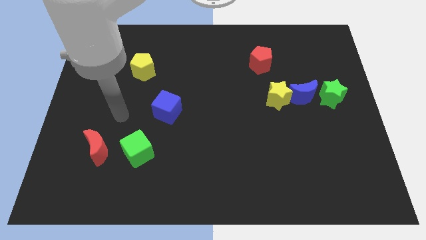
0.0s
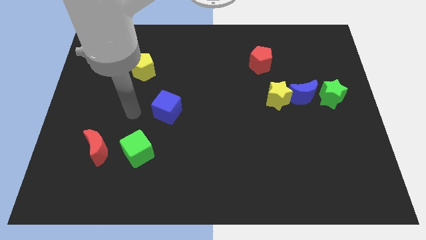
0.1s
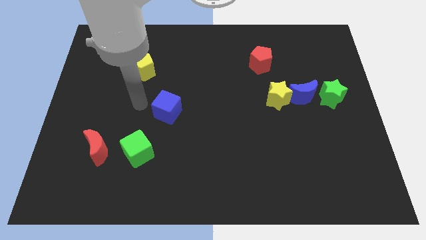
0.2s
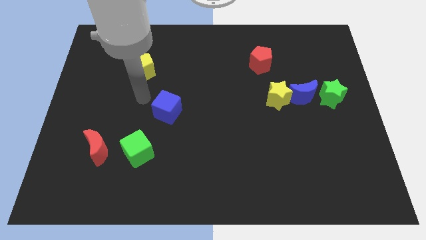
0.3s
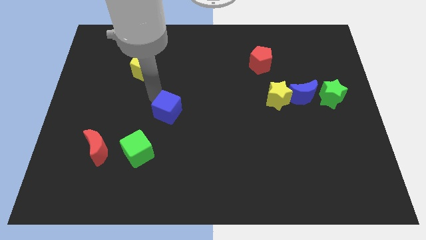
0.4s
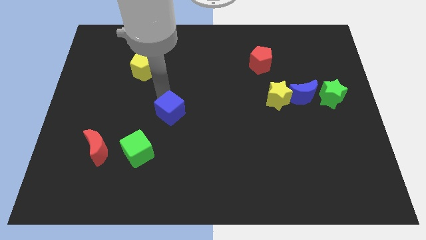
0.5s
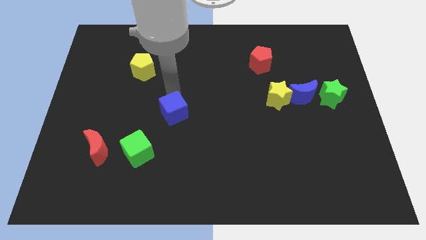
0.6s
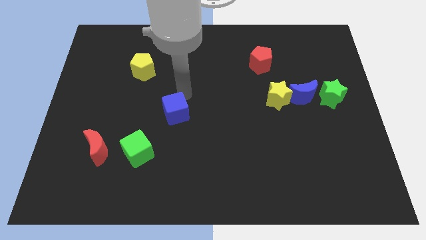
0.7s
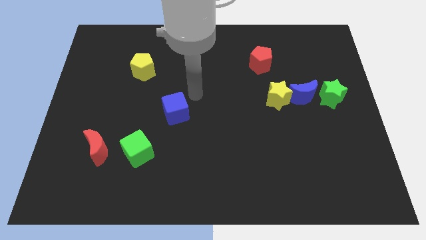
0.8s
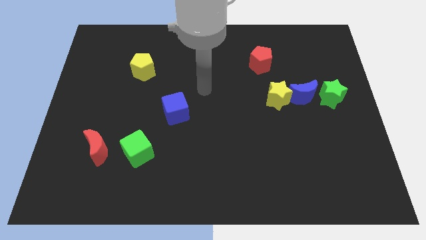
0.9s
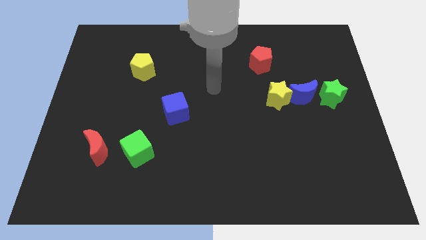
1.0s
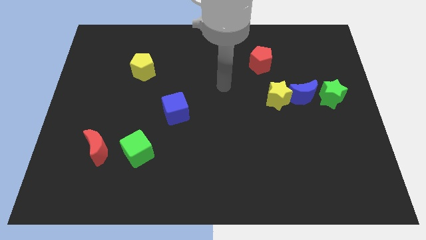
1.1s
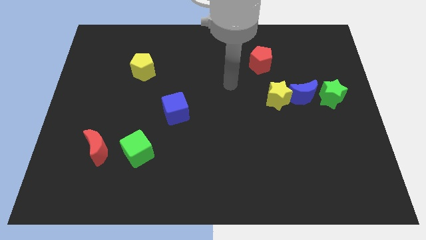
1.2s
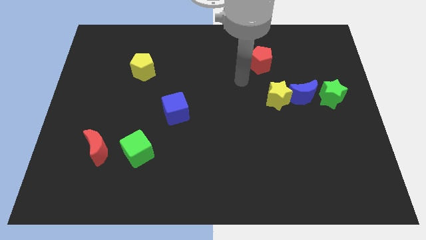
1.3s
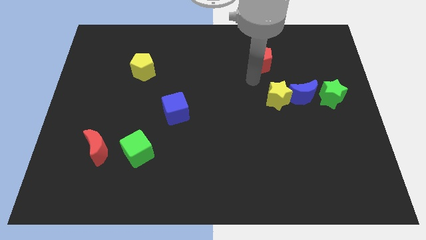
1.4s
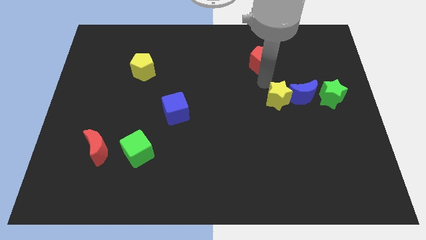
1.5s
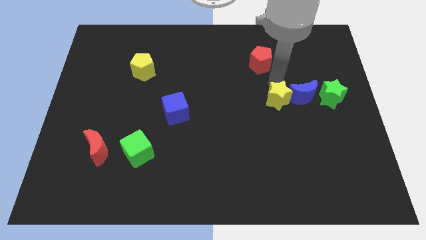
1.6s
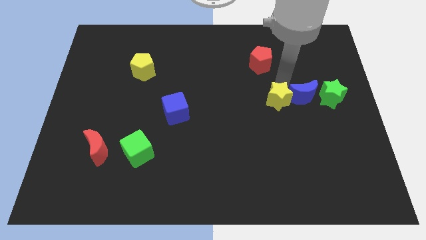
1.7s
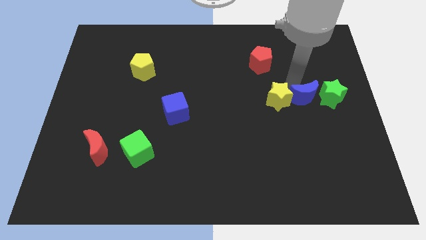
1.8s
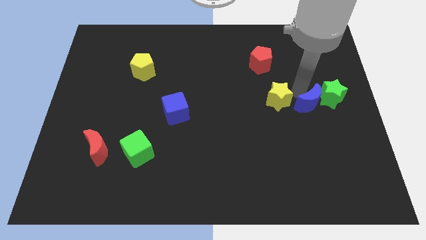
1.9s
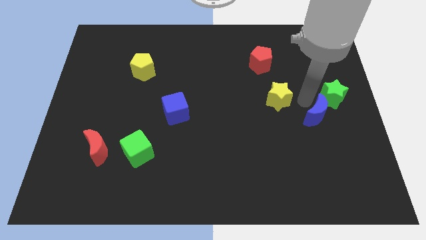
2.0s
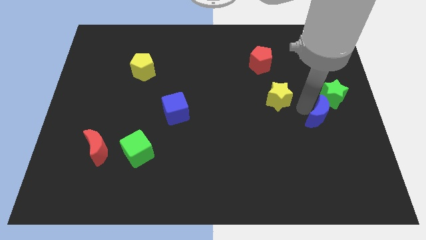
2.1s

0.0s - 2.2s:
pull the yellow star apart from the blue moon

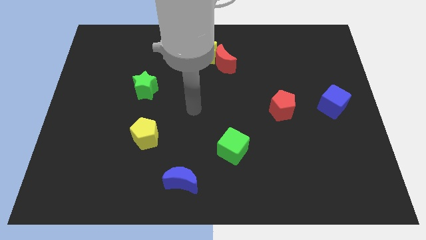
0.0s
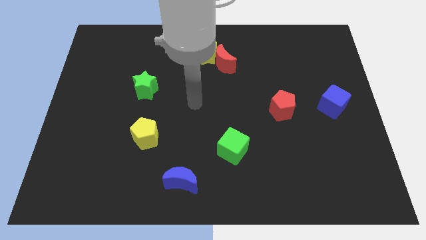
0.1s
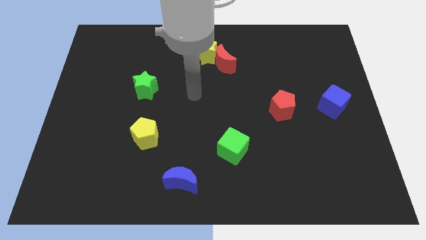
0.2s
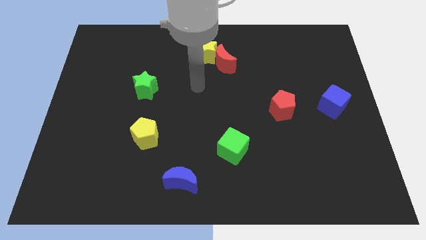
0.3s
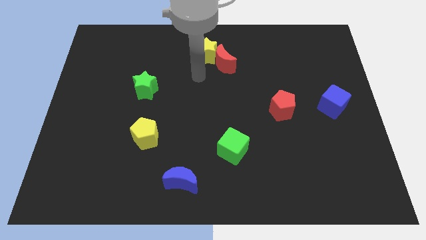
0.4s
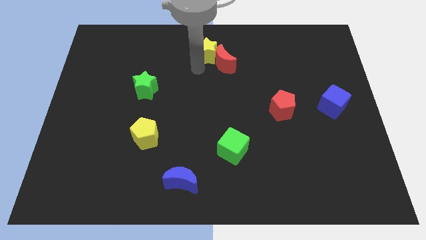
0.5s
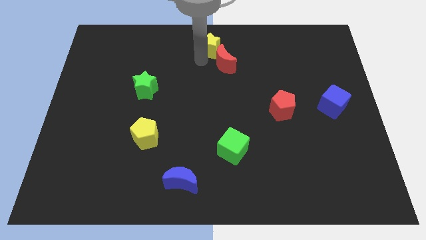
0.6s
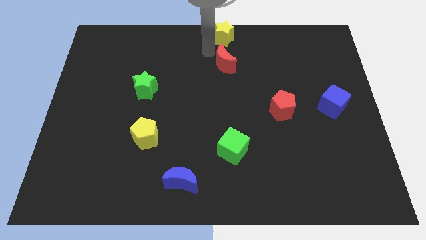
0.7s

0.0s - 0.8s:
move the red moon away from the yellow star

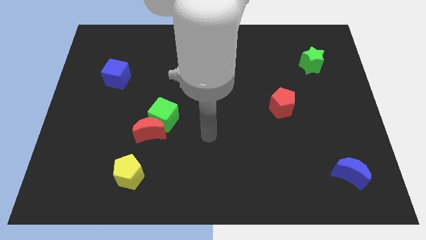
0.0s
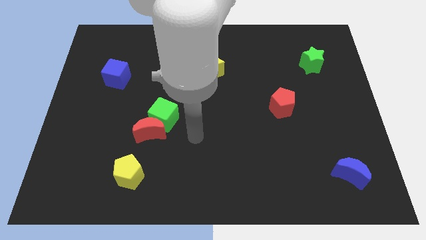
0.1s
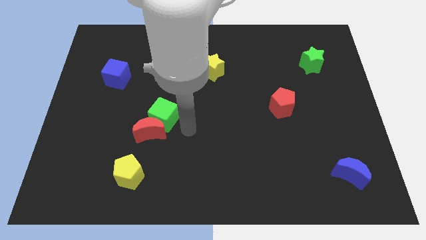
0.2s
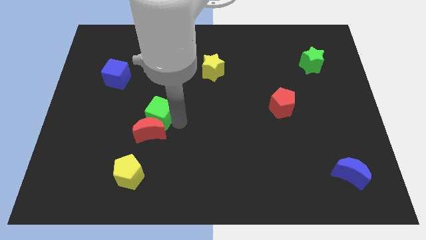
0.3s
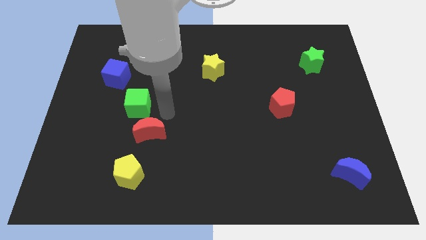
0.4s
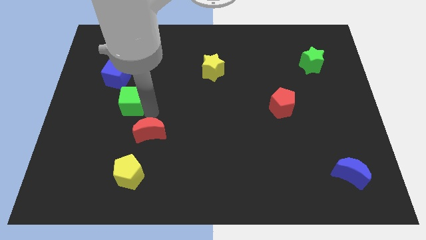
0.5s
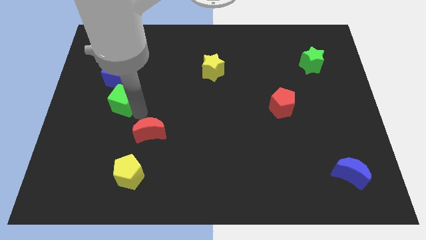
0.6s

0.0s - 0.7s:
separate the red moon from the green cube

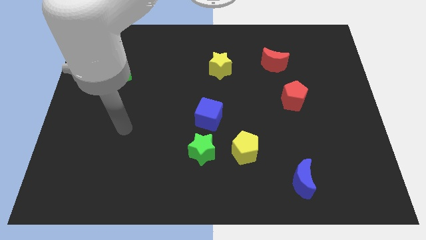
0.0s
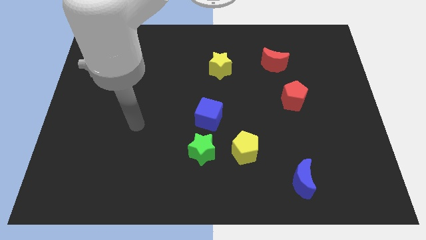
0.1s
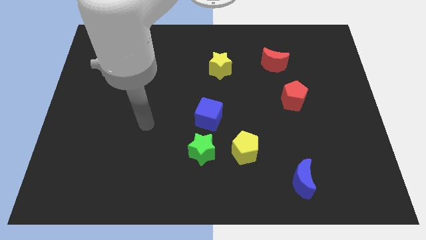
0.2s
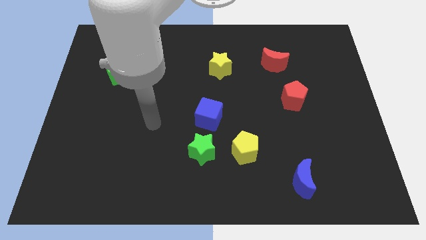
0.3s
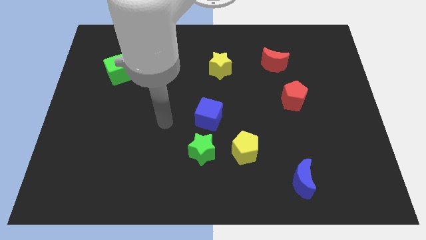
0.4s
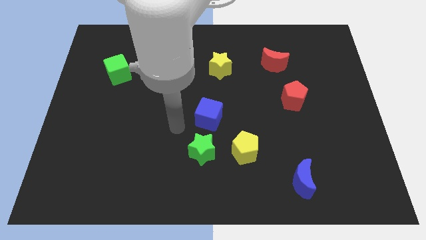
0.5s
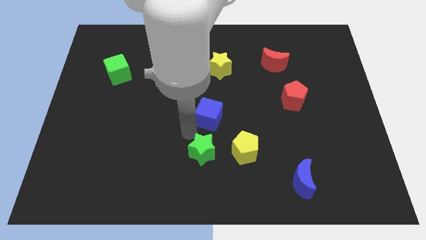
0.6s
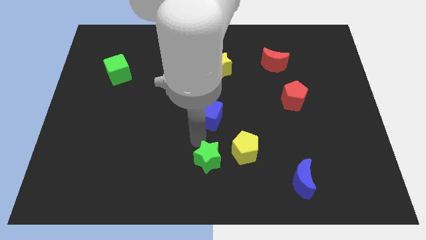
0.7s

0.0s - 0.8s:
pull the blue cube apart from the green star

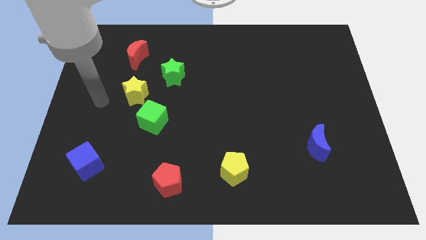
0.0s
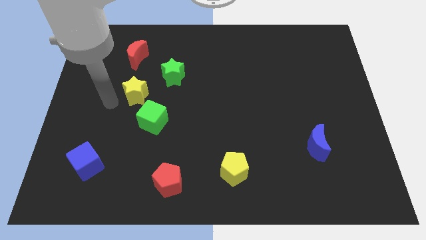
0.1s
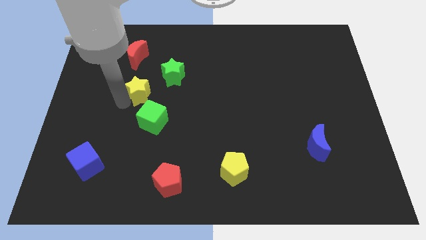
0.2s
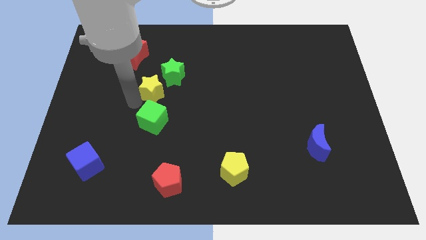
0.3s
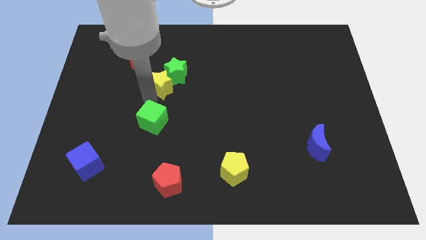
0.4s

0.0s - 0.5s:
separate the green cube from the yellow star

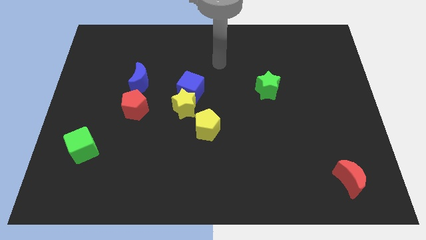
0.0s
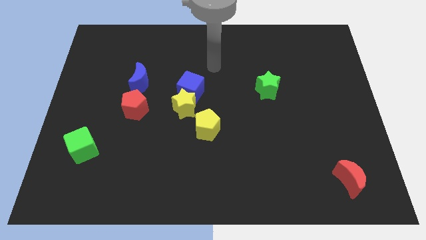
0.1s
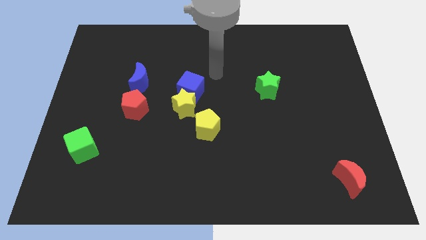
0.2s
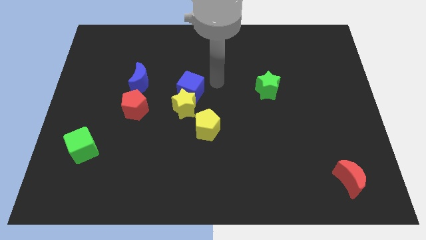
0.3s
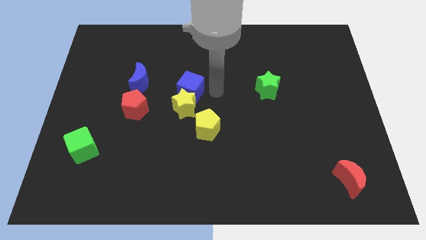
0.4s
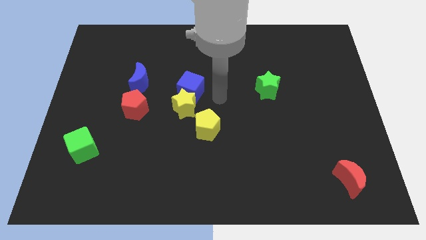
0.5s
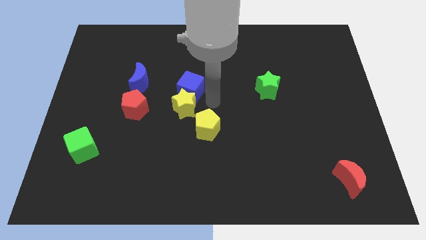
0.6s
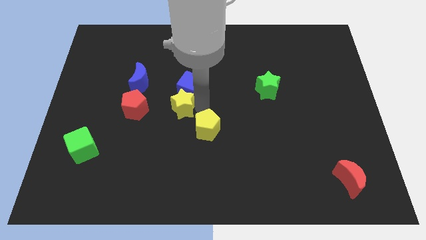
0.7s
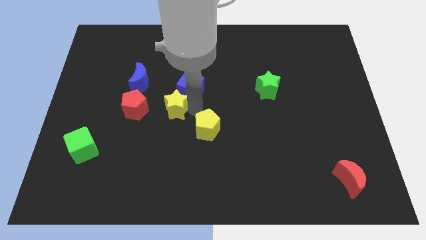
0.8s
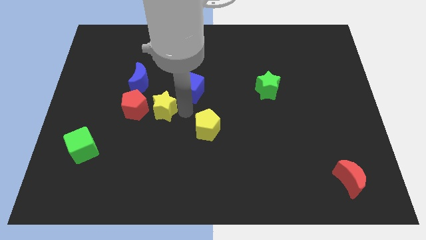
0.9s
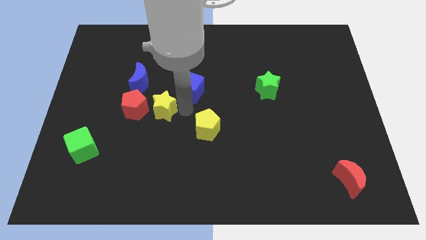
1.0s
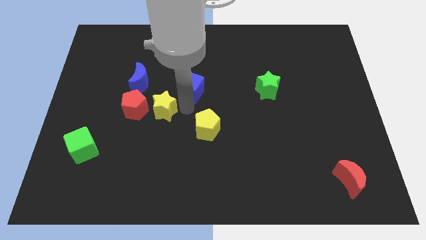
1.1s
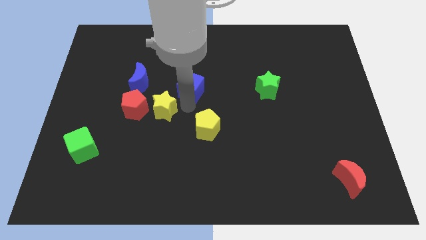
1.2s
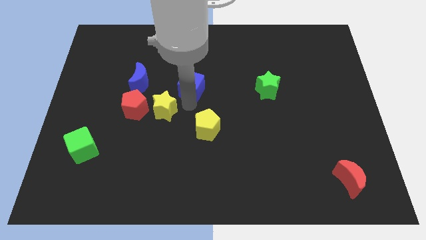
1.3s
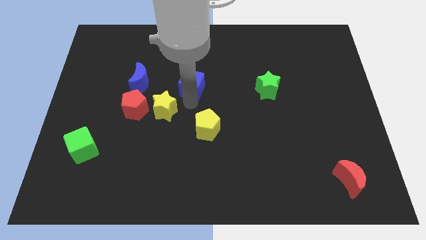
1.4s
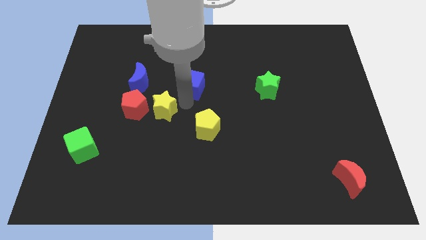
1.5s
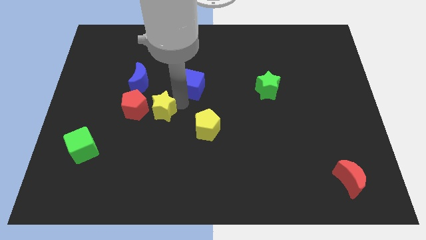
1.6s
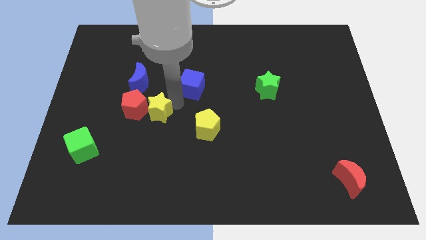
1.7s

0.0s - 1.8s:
separate the blue cube from the yellow star

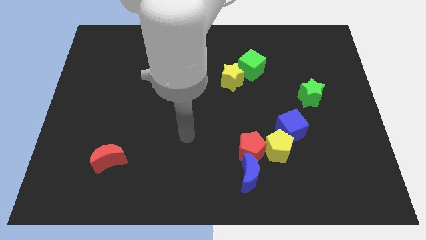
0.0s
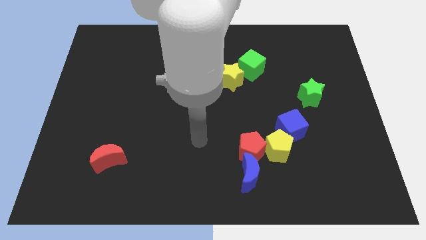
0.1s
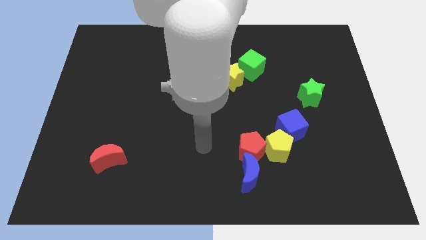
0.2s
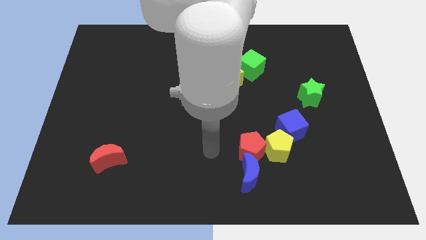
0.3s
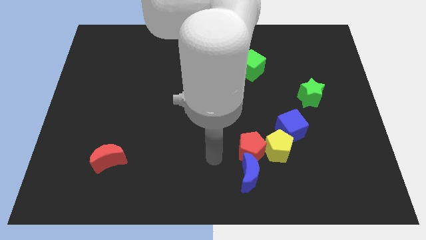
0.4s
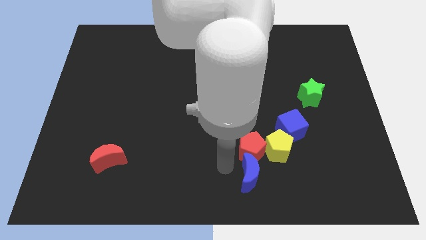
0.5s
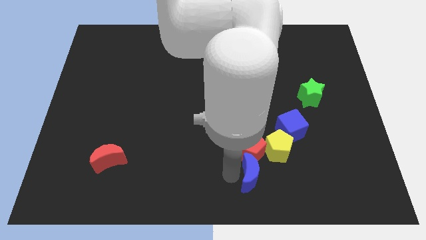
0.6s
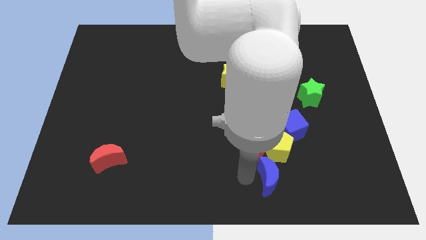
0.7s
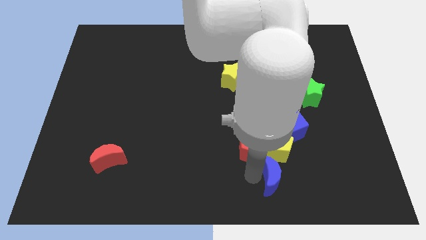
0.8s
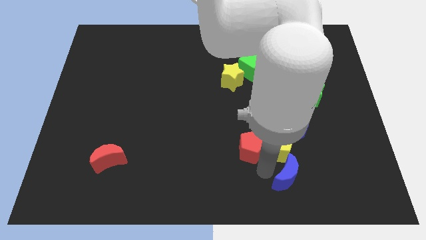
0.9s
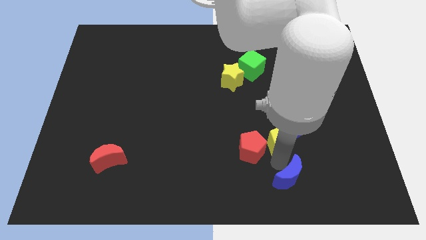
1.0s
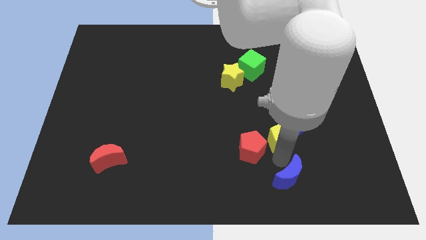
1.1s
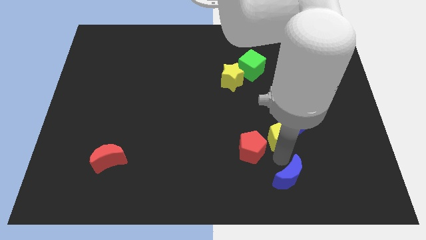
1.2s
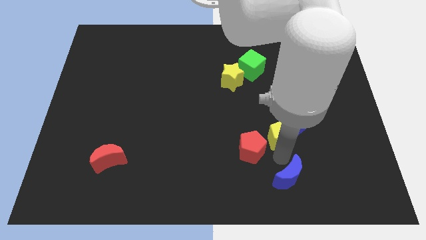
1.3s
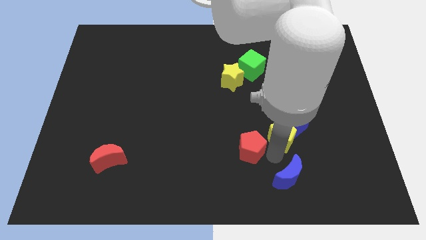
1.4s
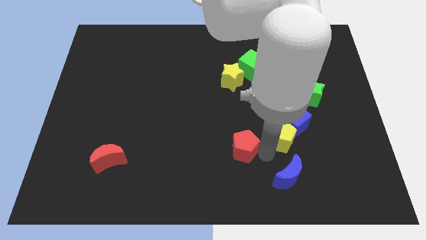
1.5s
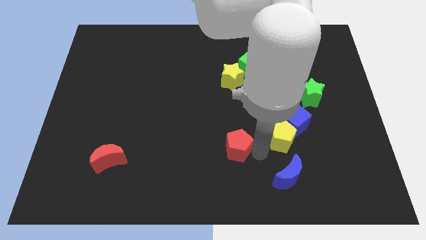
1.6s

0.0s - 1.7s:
separate the red pentagon from the blue moon and yellow pentagon

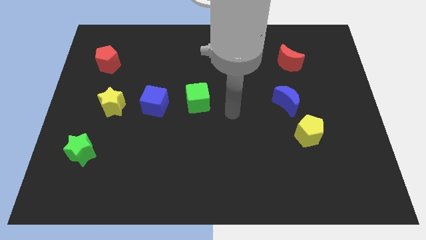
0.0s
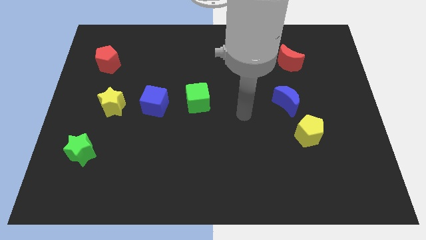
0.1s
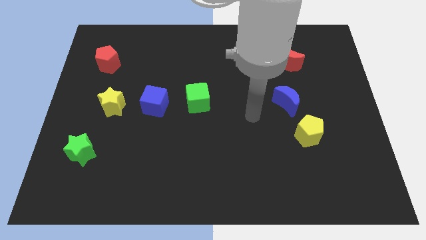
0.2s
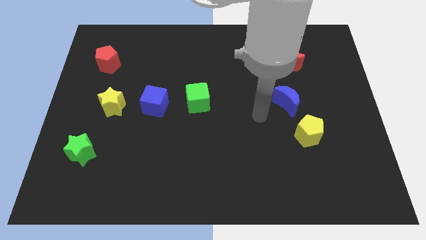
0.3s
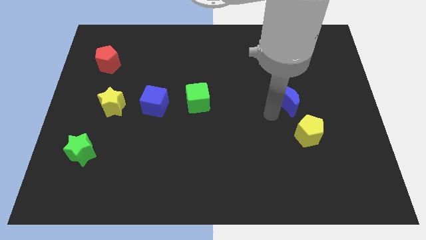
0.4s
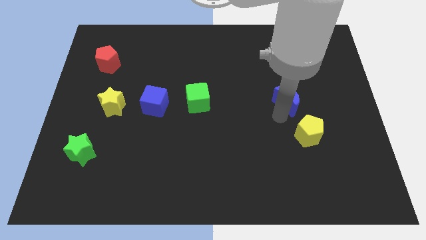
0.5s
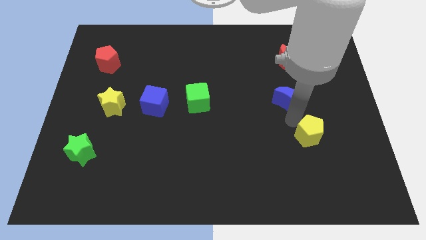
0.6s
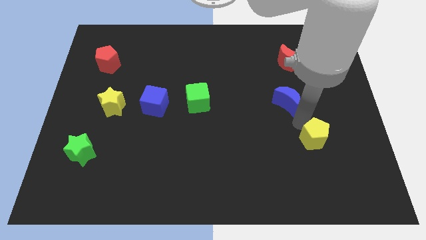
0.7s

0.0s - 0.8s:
pull the blue moon apart from the yellow pentagon
